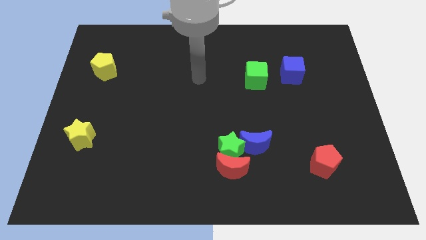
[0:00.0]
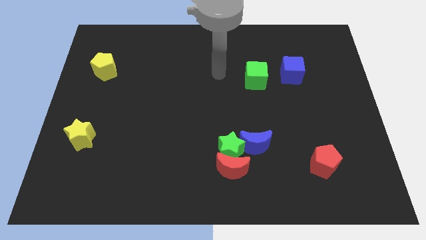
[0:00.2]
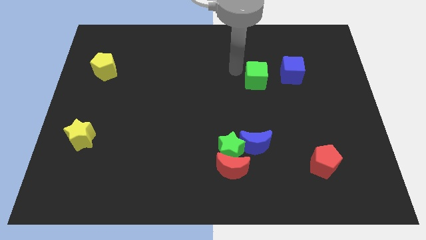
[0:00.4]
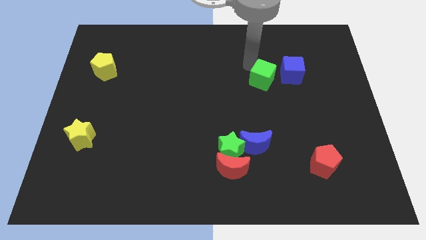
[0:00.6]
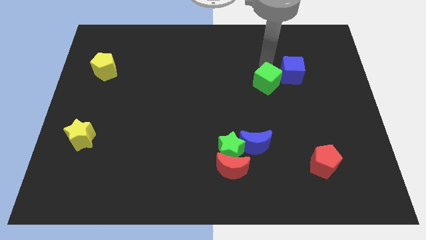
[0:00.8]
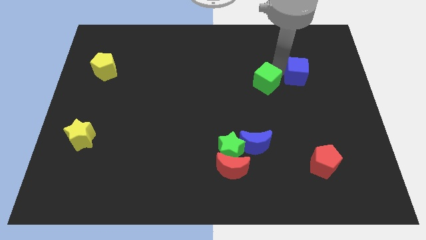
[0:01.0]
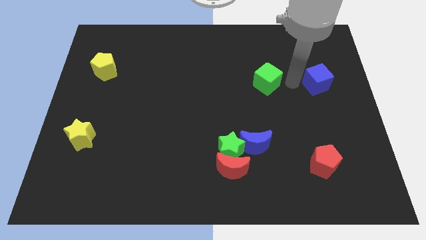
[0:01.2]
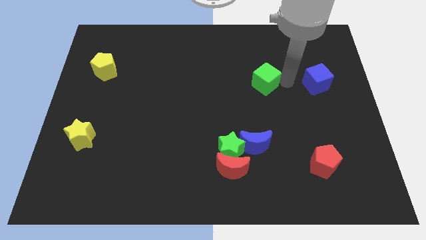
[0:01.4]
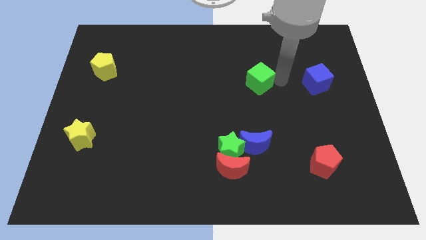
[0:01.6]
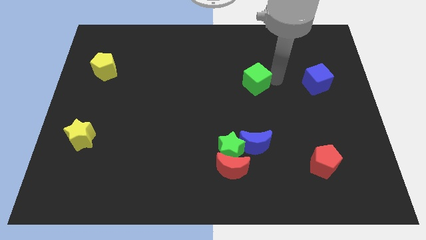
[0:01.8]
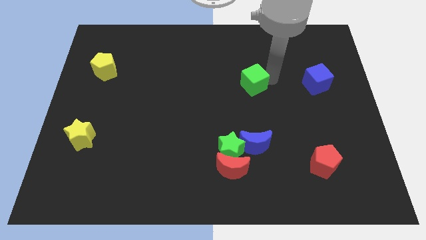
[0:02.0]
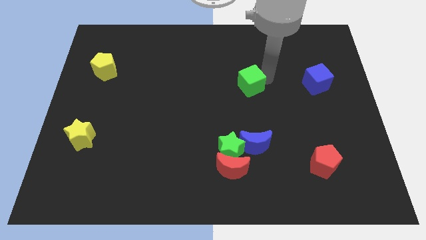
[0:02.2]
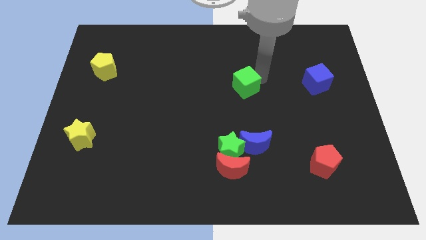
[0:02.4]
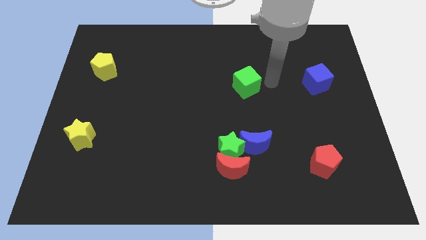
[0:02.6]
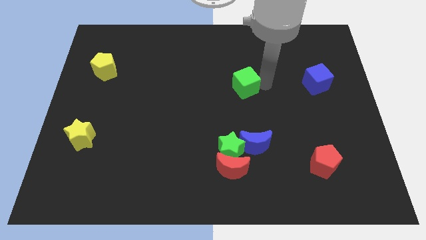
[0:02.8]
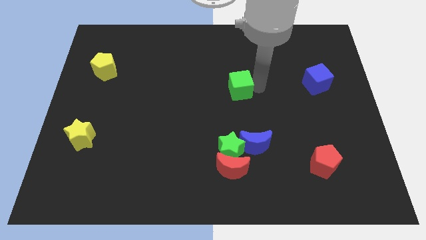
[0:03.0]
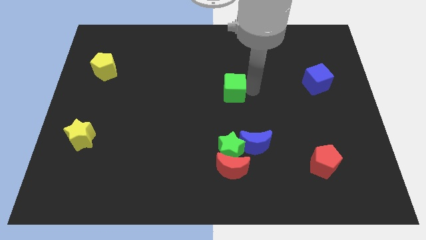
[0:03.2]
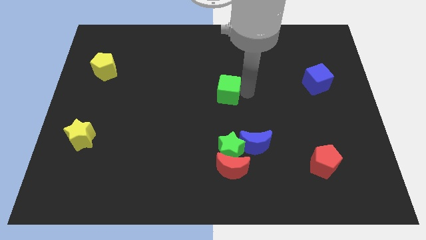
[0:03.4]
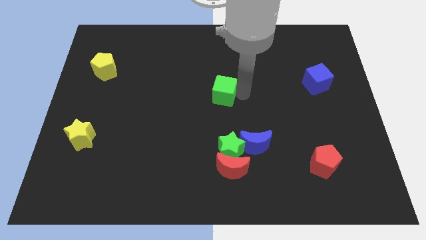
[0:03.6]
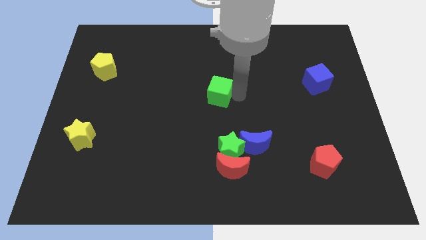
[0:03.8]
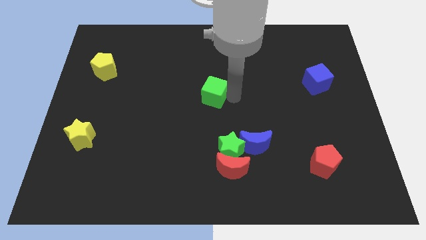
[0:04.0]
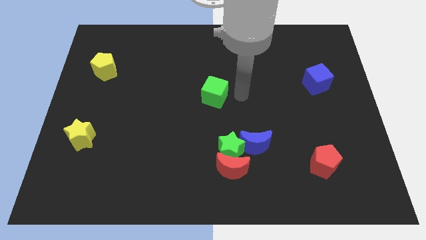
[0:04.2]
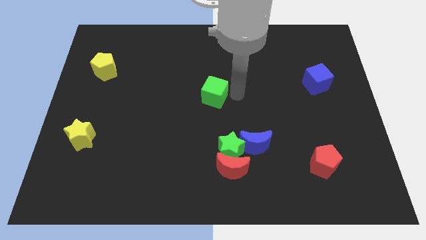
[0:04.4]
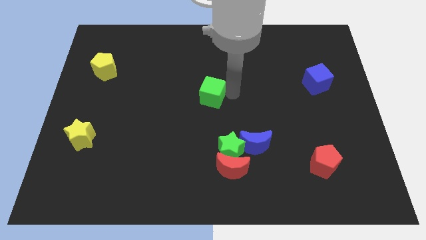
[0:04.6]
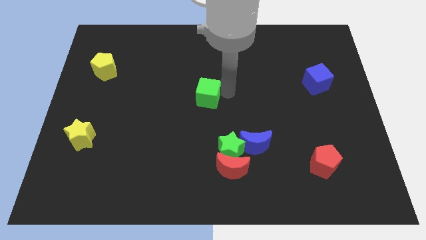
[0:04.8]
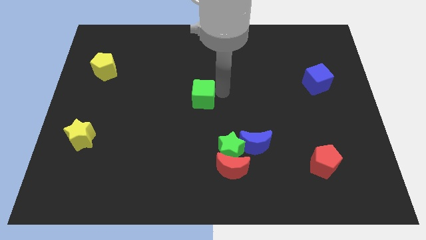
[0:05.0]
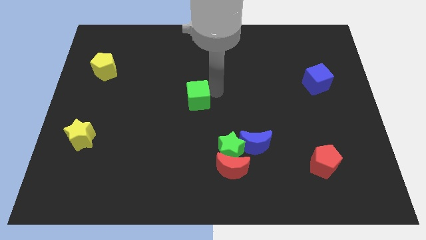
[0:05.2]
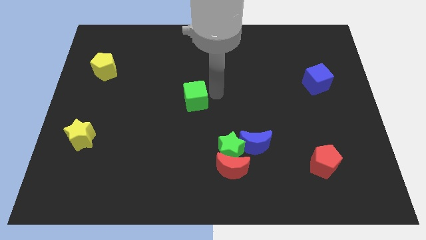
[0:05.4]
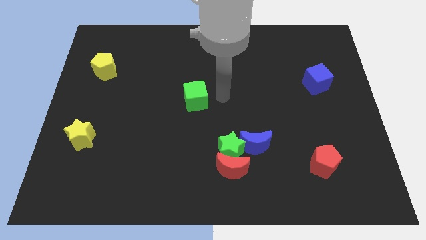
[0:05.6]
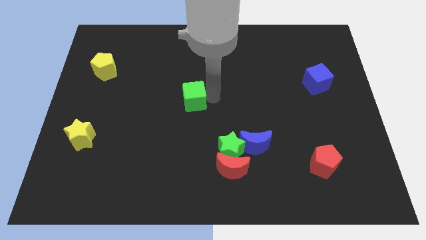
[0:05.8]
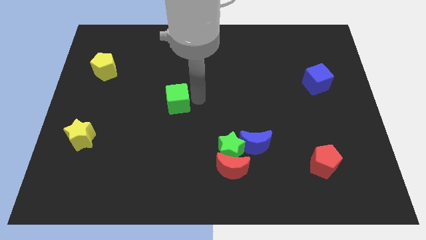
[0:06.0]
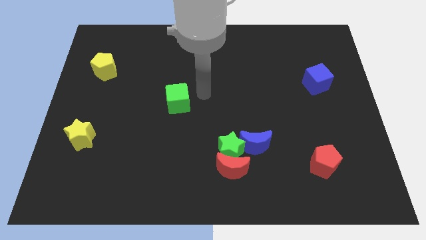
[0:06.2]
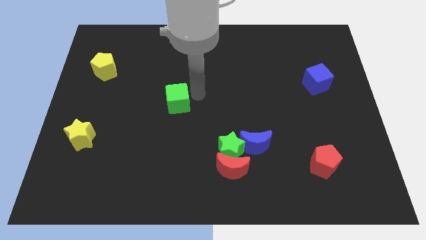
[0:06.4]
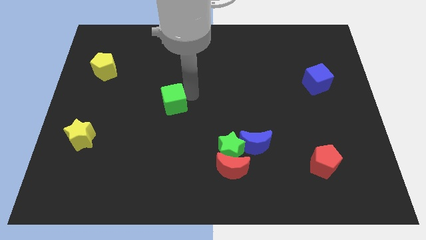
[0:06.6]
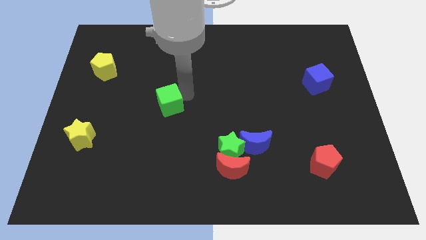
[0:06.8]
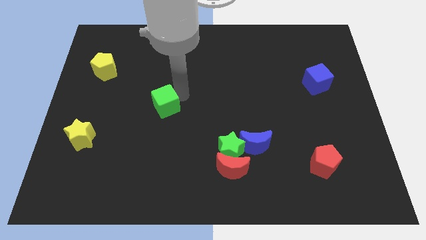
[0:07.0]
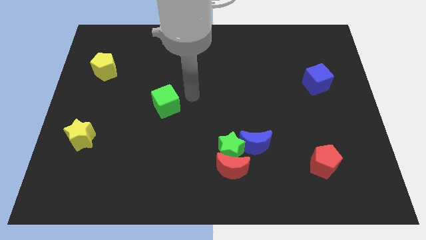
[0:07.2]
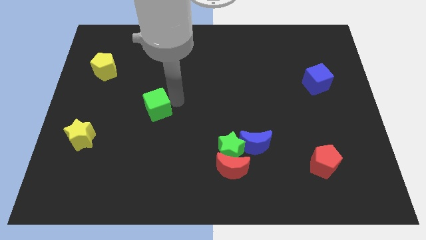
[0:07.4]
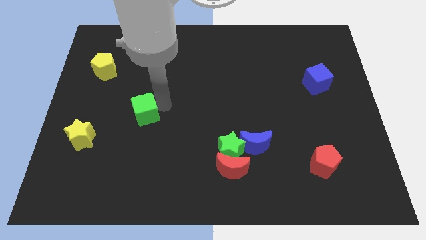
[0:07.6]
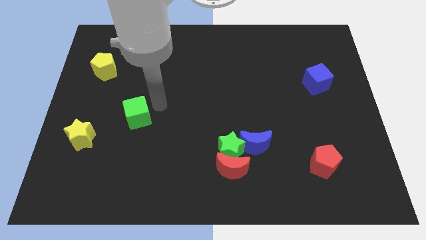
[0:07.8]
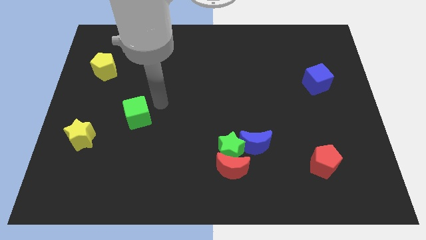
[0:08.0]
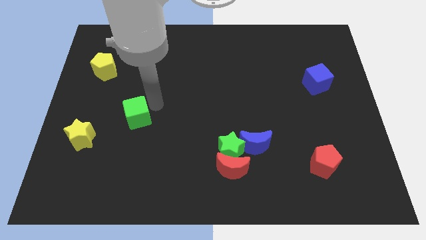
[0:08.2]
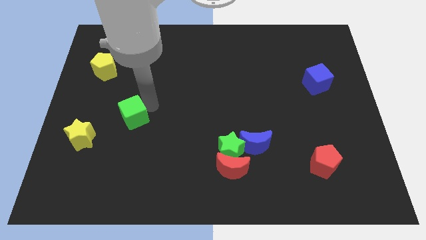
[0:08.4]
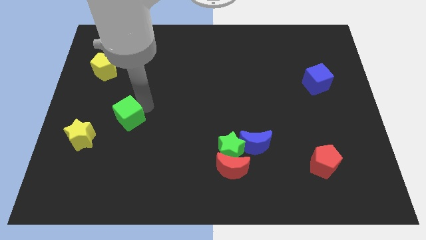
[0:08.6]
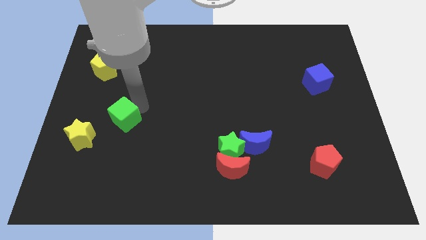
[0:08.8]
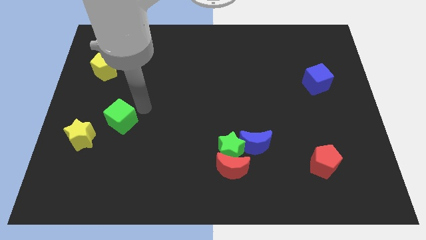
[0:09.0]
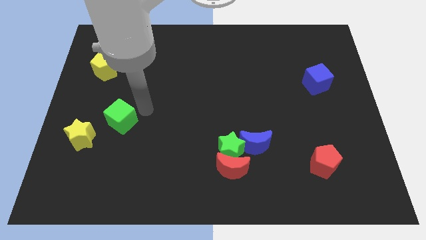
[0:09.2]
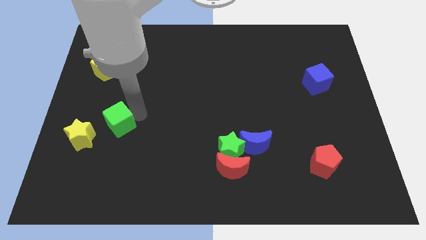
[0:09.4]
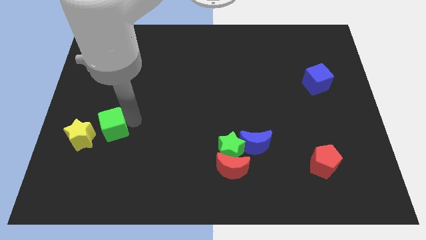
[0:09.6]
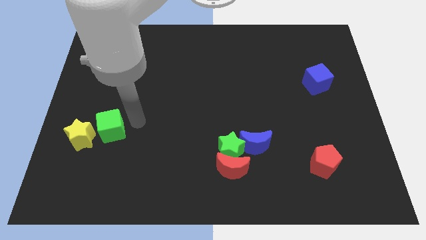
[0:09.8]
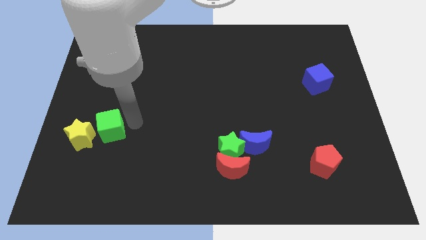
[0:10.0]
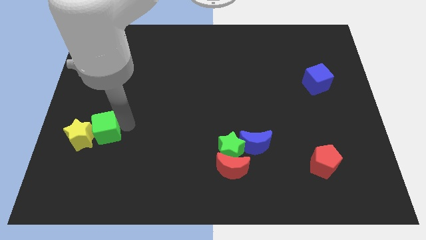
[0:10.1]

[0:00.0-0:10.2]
put the green cube close to the yellow star

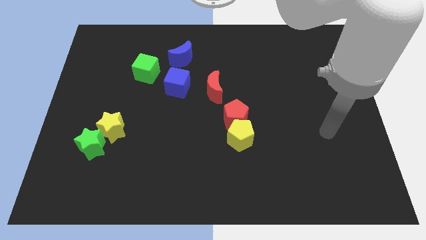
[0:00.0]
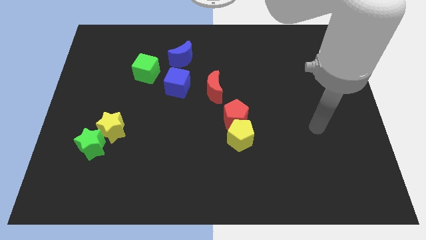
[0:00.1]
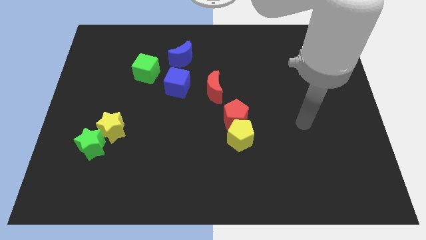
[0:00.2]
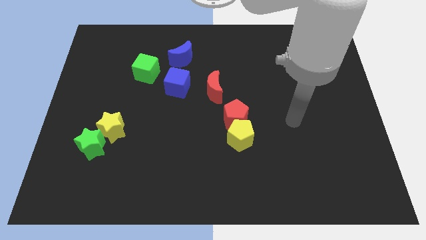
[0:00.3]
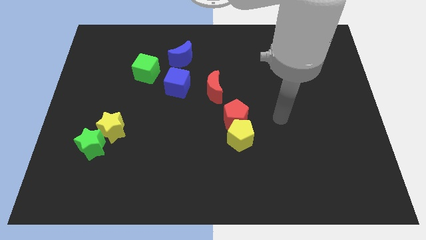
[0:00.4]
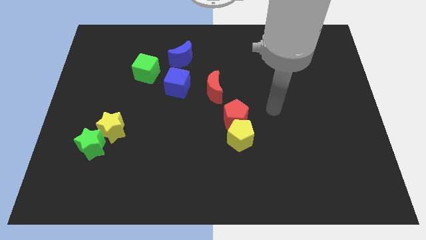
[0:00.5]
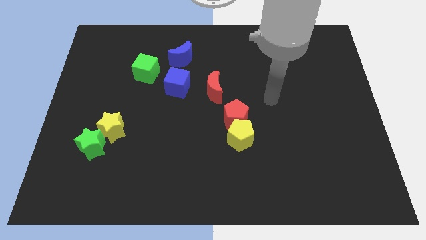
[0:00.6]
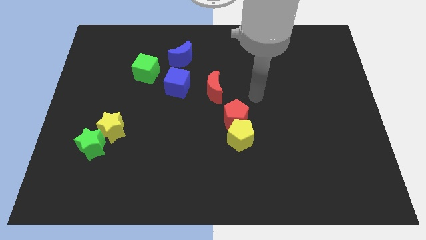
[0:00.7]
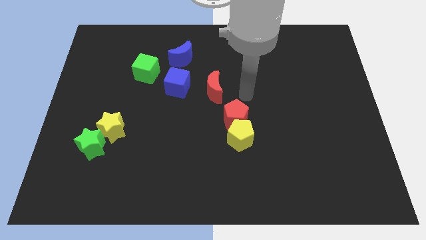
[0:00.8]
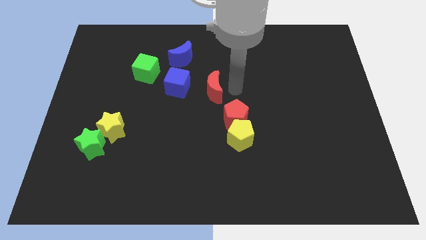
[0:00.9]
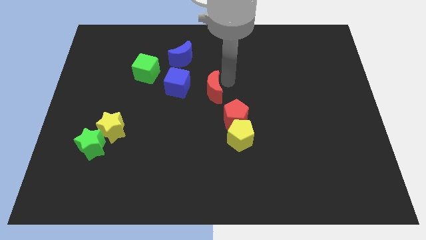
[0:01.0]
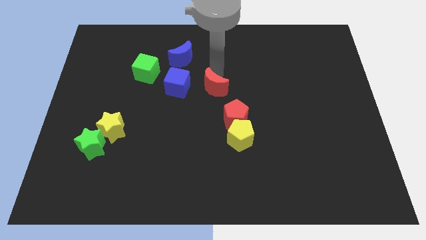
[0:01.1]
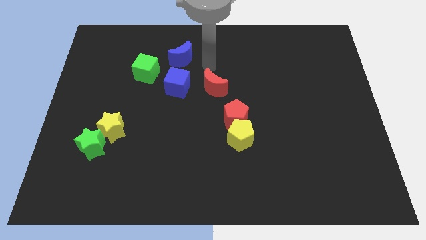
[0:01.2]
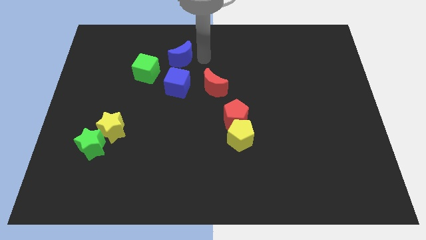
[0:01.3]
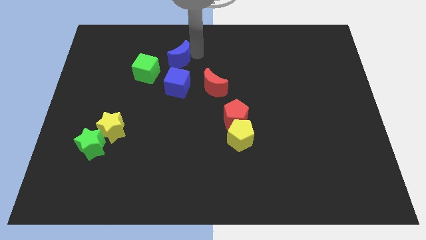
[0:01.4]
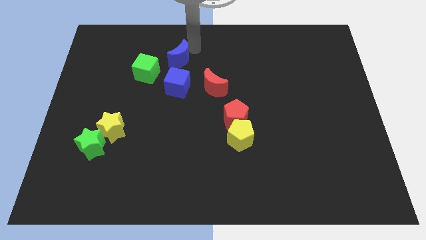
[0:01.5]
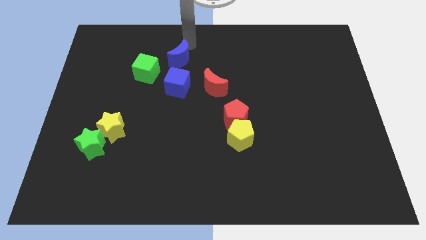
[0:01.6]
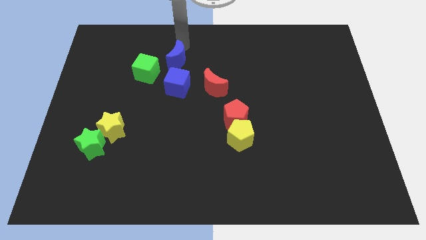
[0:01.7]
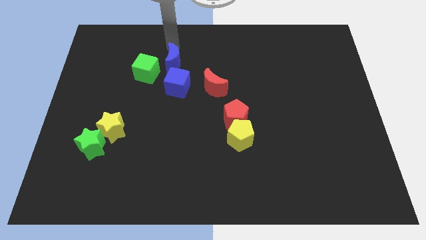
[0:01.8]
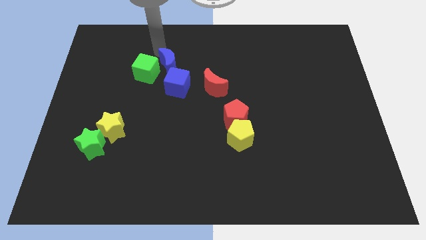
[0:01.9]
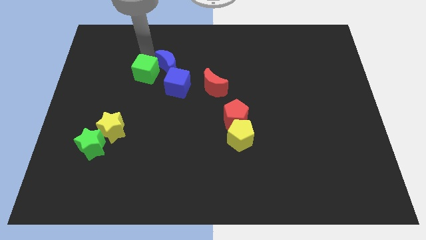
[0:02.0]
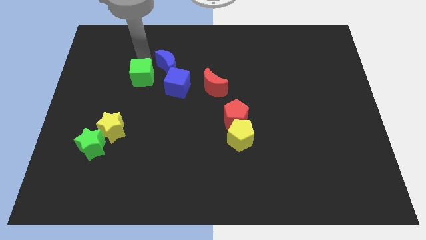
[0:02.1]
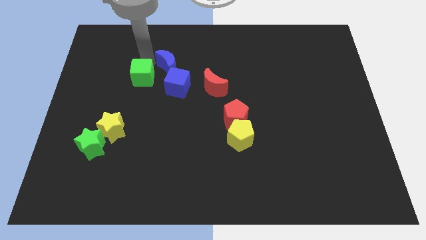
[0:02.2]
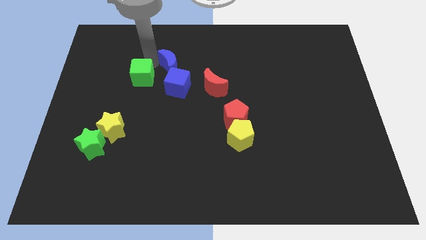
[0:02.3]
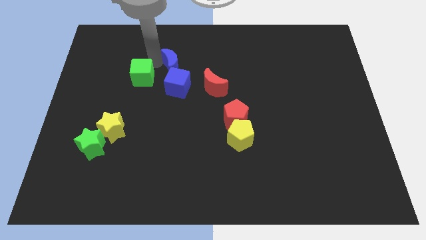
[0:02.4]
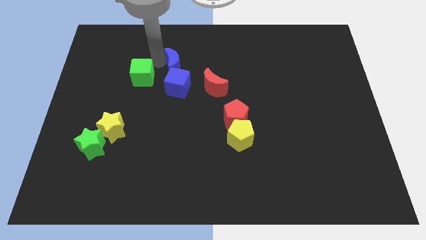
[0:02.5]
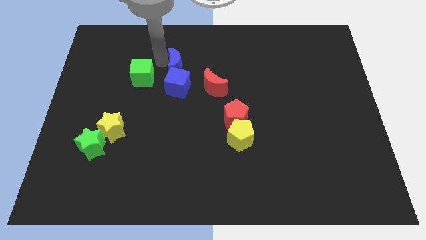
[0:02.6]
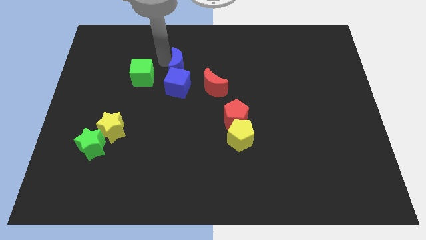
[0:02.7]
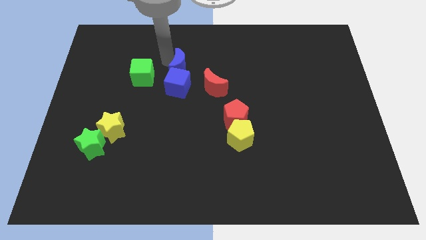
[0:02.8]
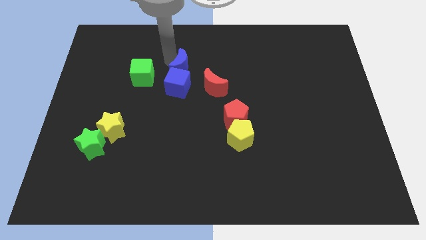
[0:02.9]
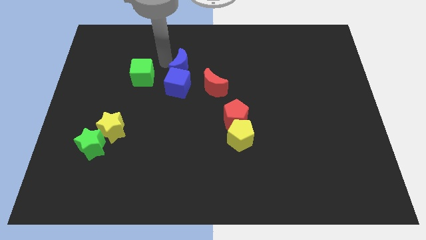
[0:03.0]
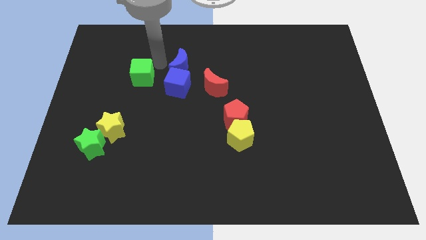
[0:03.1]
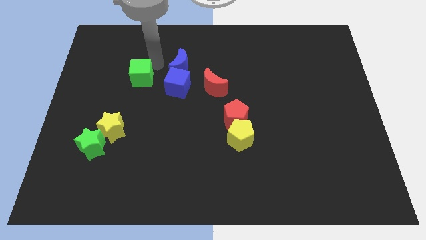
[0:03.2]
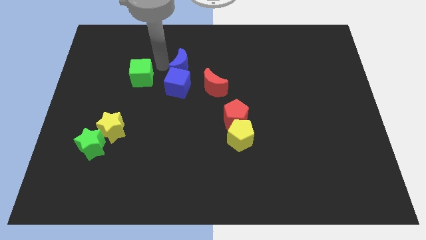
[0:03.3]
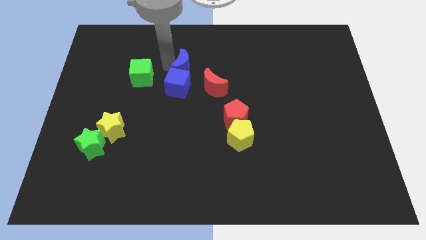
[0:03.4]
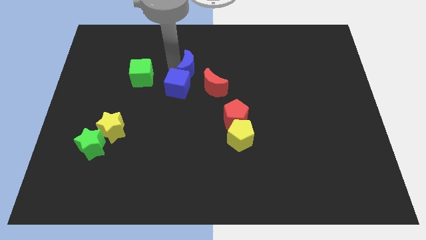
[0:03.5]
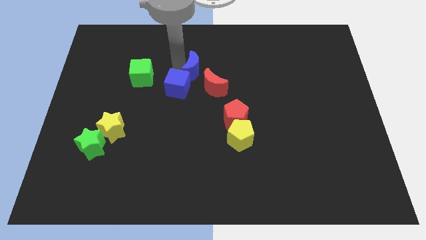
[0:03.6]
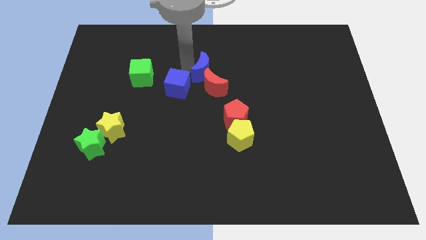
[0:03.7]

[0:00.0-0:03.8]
slide the blue moon next to the red moon
